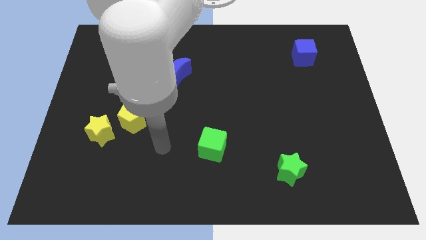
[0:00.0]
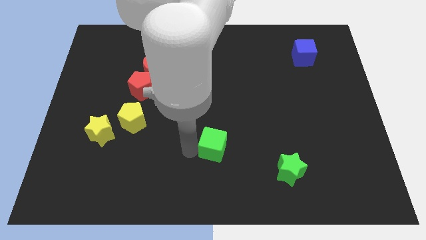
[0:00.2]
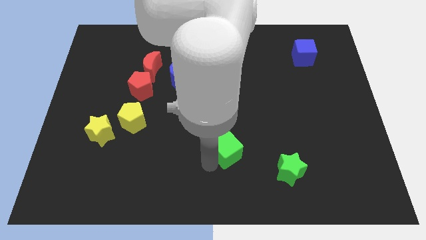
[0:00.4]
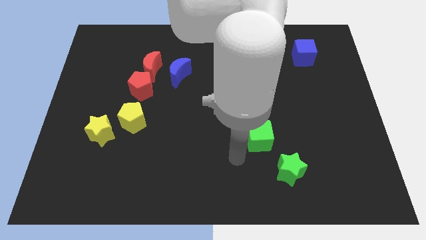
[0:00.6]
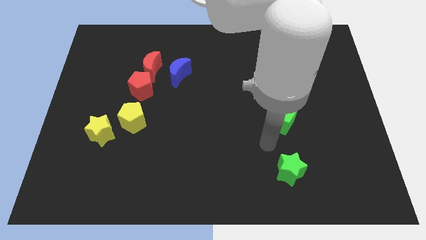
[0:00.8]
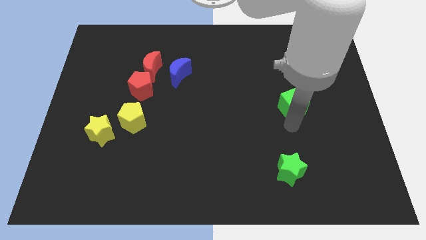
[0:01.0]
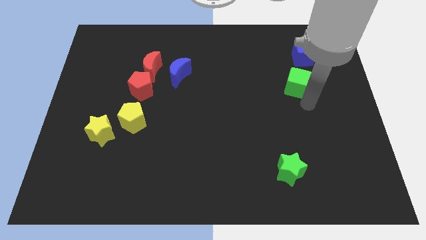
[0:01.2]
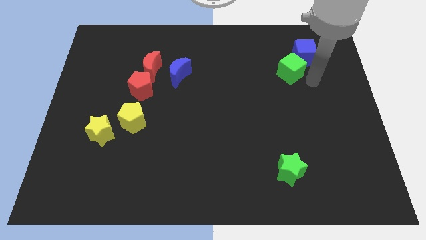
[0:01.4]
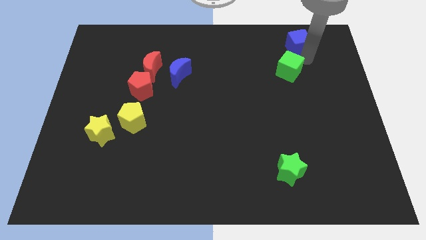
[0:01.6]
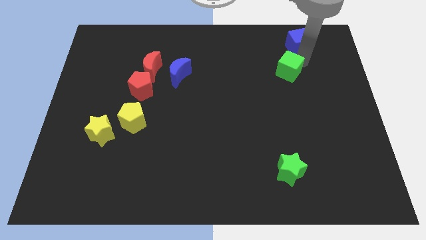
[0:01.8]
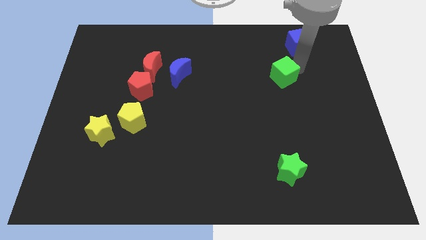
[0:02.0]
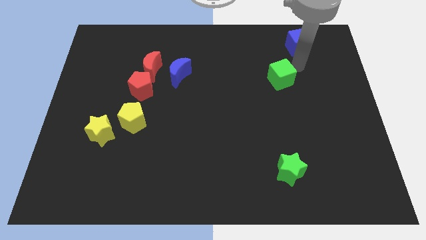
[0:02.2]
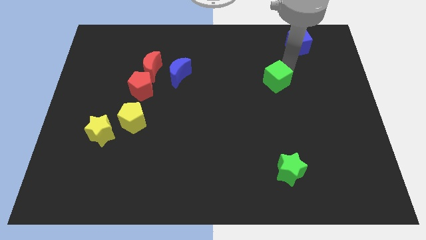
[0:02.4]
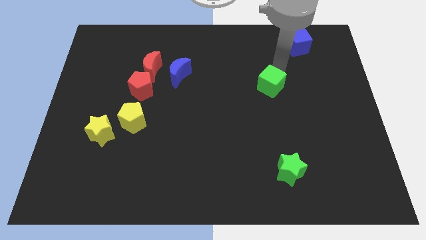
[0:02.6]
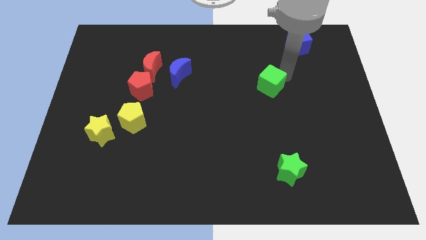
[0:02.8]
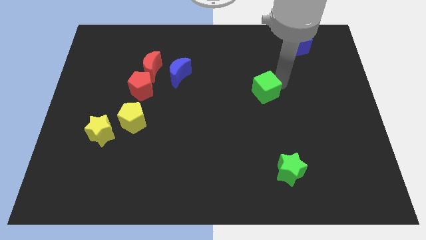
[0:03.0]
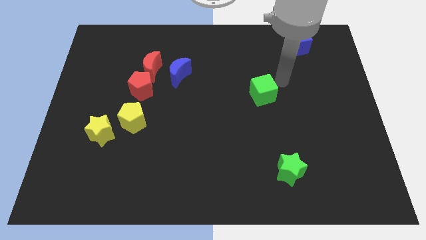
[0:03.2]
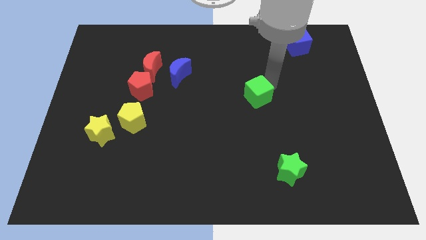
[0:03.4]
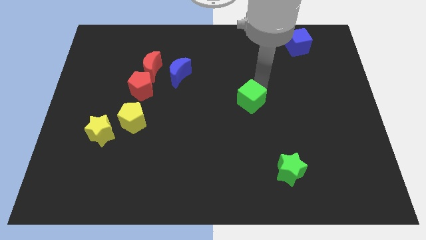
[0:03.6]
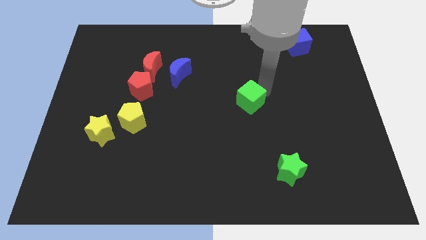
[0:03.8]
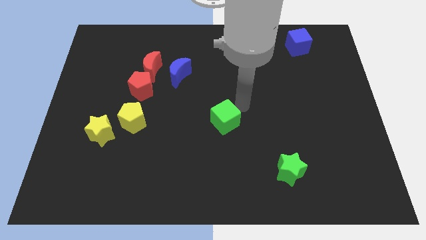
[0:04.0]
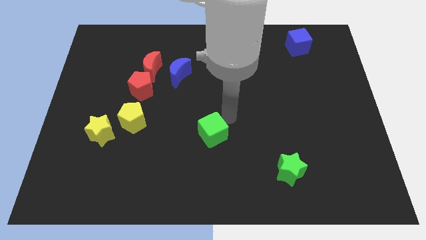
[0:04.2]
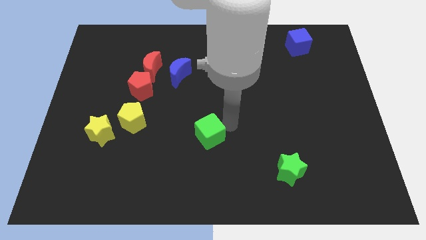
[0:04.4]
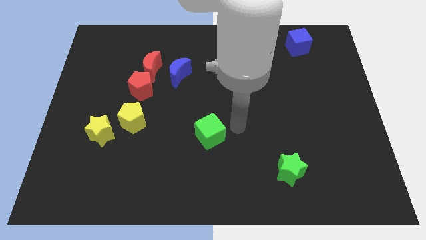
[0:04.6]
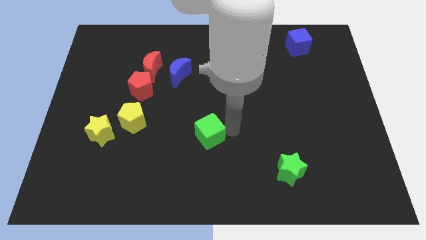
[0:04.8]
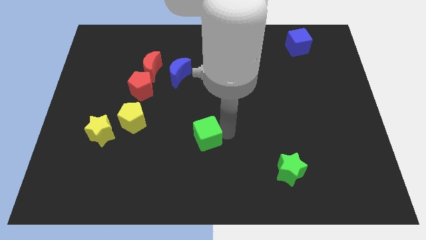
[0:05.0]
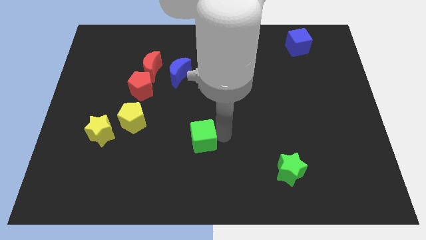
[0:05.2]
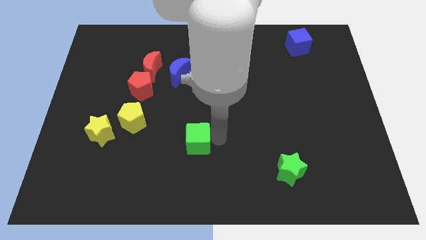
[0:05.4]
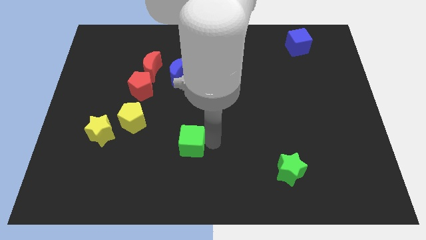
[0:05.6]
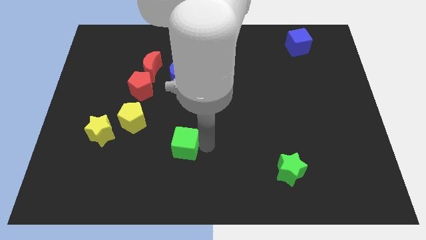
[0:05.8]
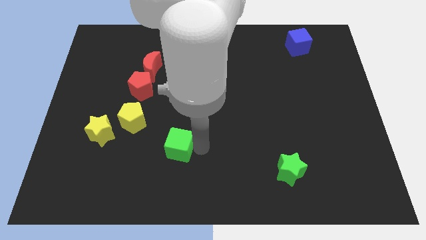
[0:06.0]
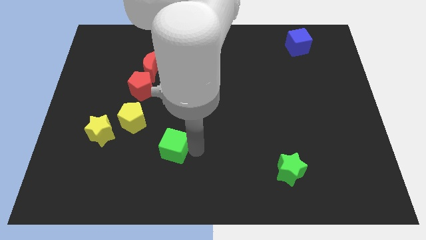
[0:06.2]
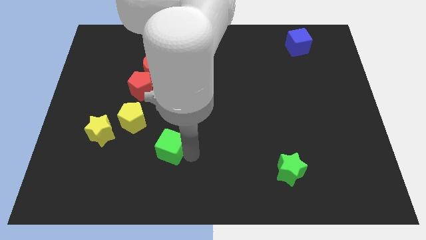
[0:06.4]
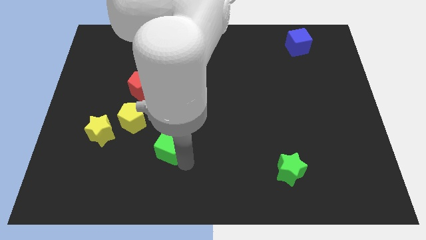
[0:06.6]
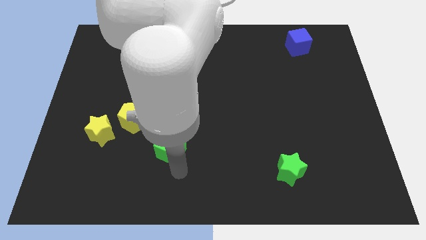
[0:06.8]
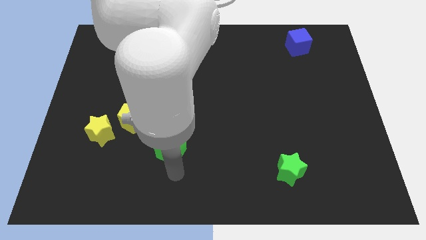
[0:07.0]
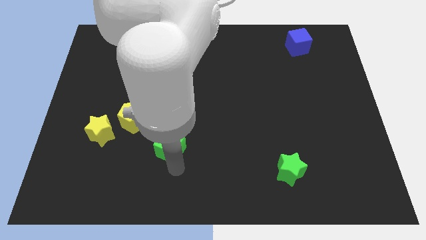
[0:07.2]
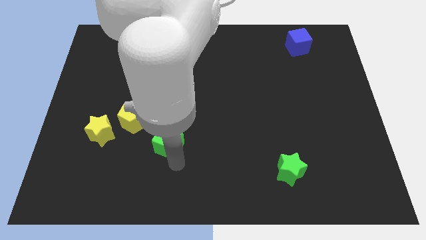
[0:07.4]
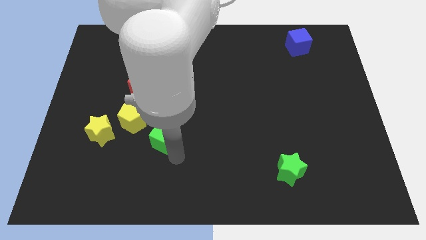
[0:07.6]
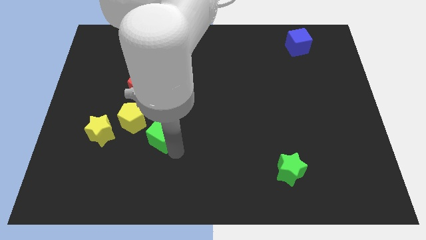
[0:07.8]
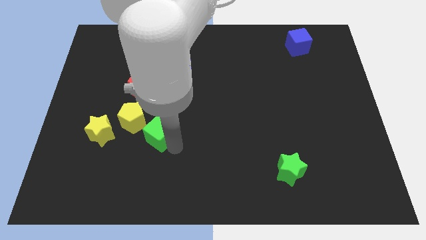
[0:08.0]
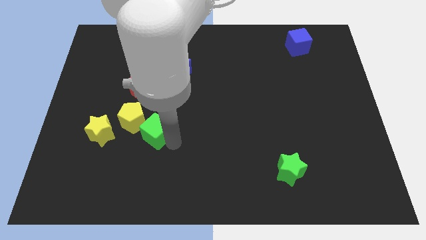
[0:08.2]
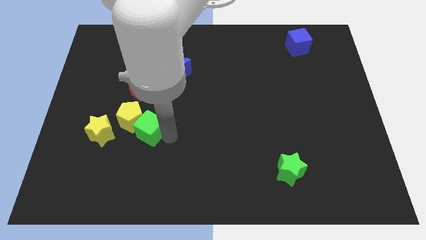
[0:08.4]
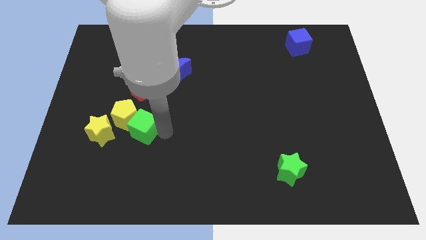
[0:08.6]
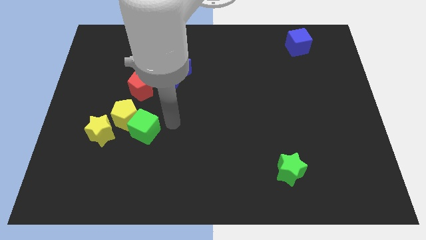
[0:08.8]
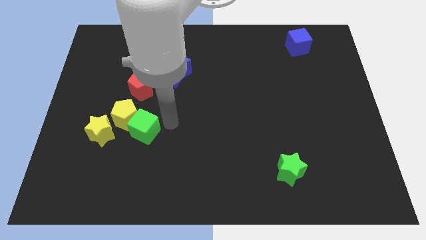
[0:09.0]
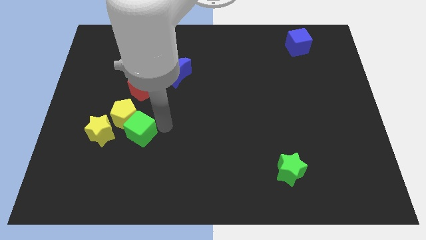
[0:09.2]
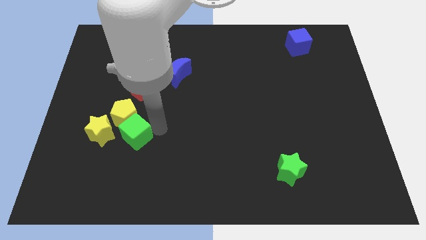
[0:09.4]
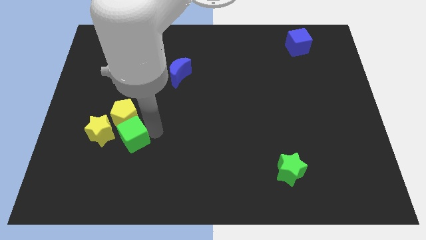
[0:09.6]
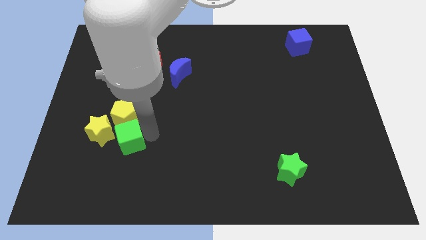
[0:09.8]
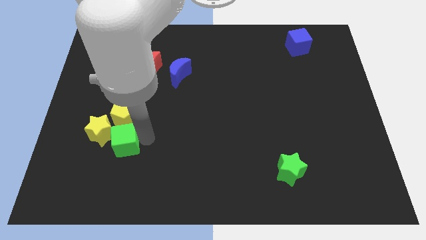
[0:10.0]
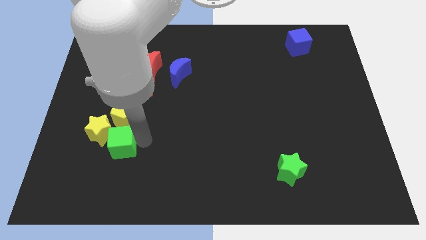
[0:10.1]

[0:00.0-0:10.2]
put the green cube towards the yellow star

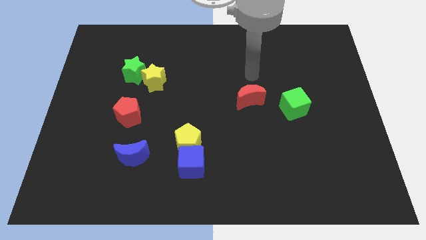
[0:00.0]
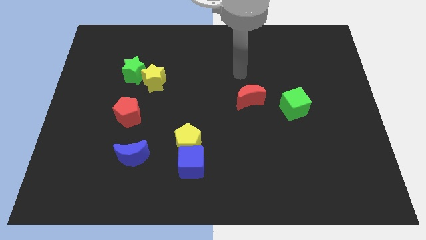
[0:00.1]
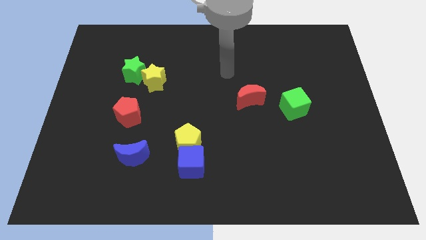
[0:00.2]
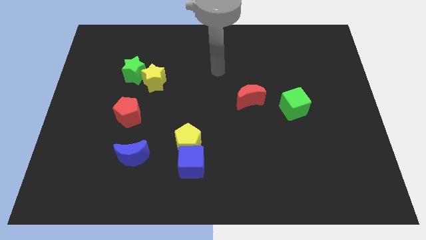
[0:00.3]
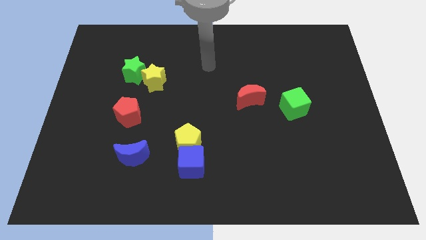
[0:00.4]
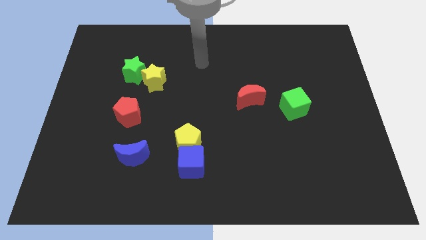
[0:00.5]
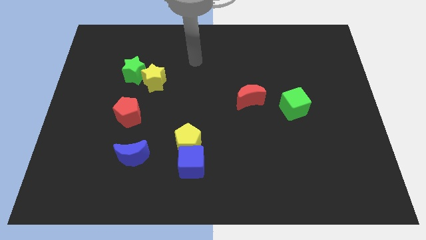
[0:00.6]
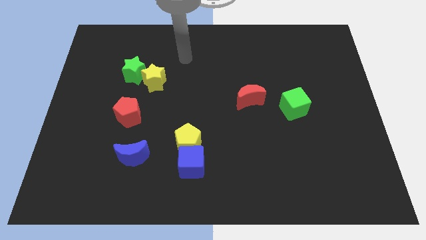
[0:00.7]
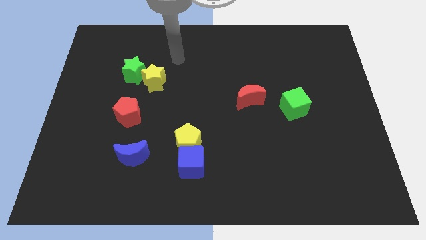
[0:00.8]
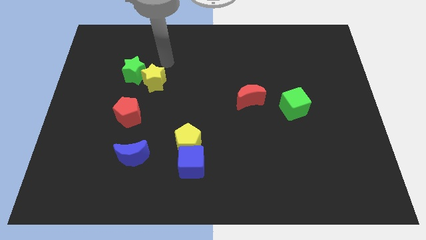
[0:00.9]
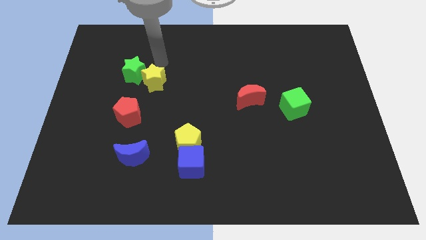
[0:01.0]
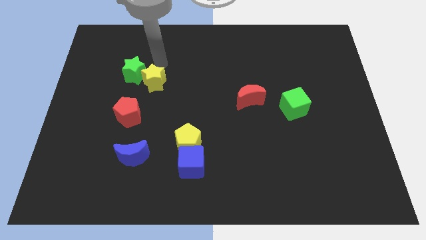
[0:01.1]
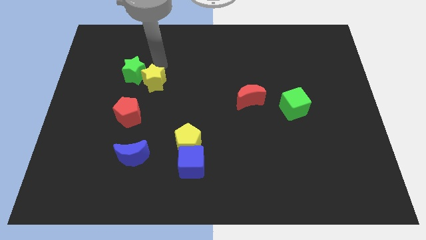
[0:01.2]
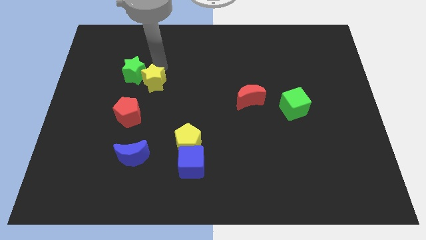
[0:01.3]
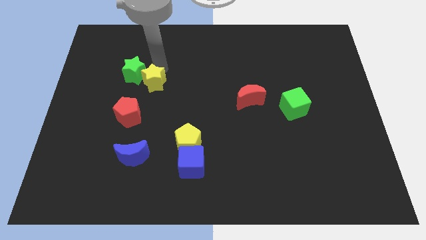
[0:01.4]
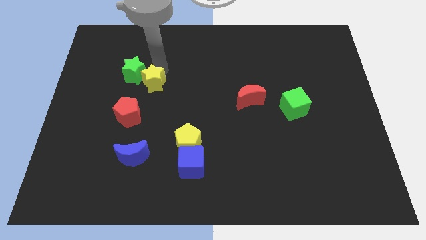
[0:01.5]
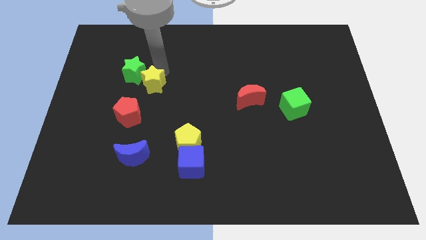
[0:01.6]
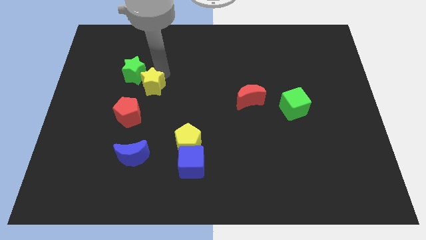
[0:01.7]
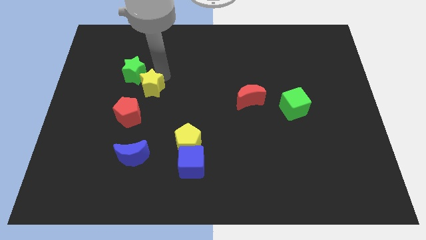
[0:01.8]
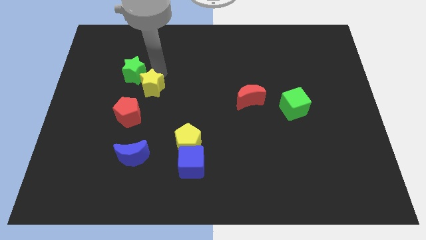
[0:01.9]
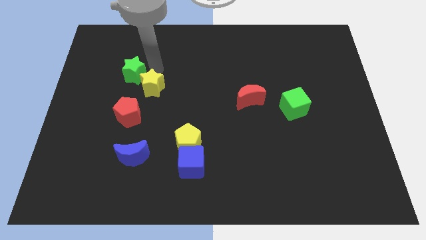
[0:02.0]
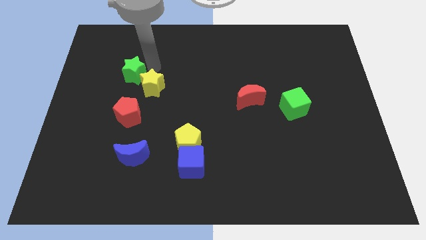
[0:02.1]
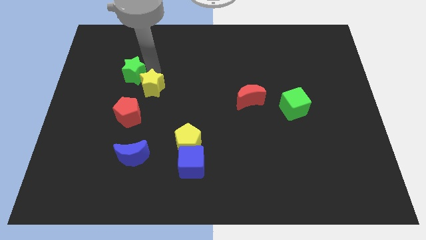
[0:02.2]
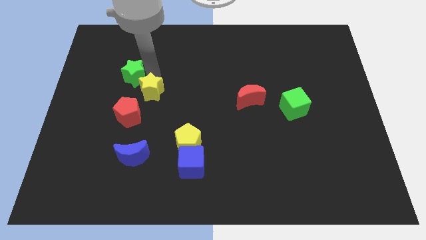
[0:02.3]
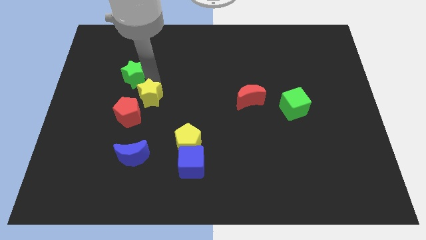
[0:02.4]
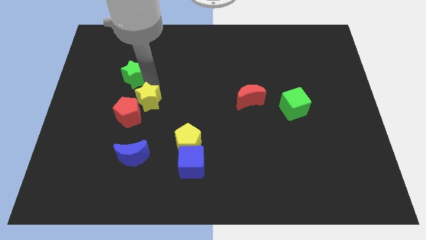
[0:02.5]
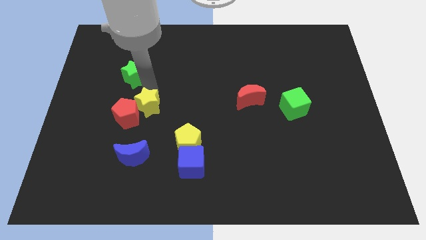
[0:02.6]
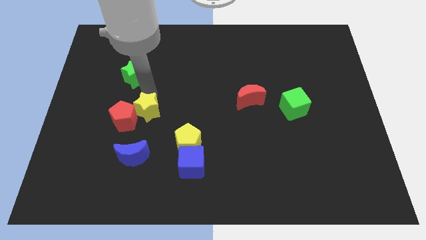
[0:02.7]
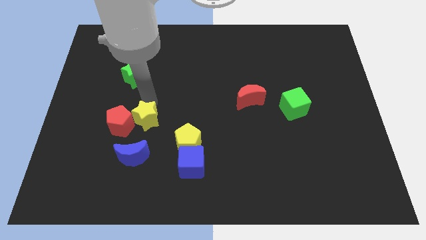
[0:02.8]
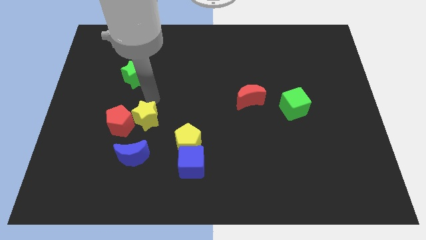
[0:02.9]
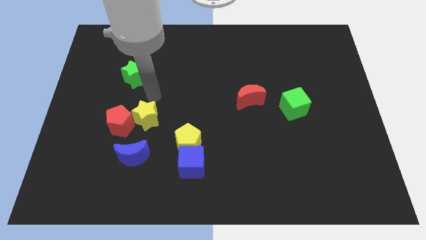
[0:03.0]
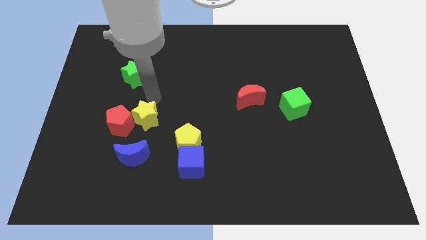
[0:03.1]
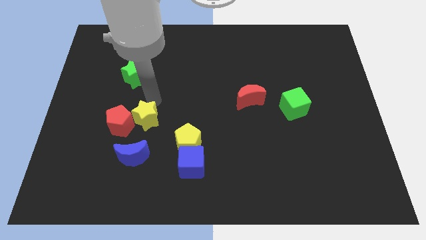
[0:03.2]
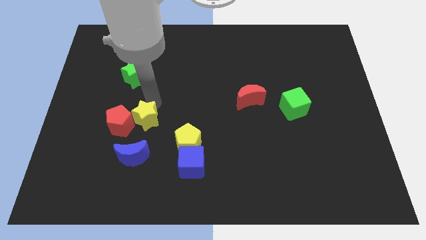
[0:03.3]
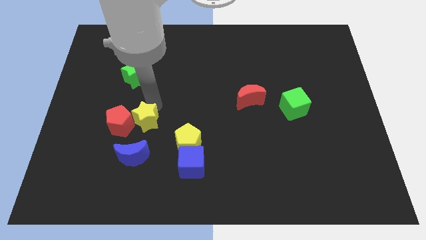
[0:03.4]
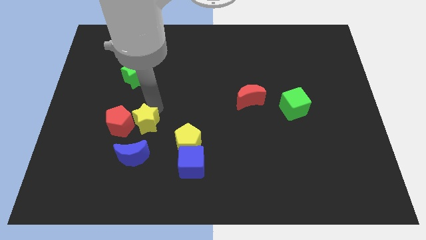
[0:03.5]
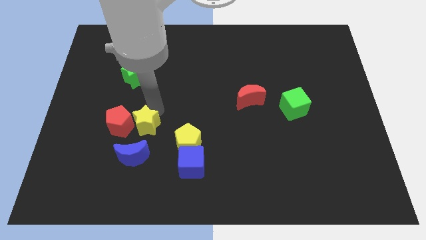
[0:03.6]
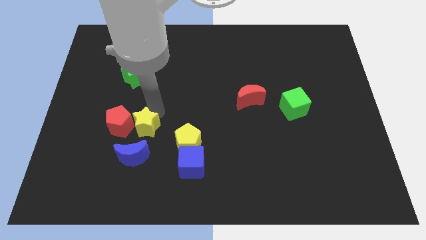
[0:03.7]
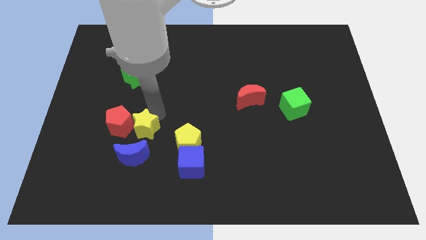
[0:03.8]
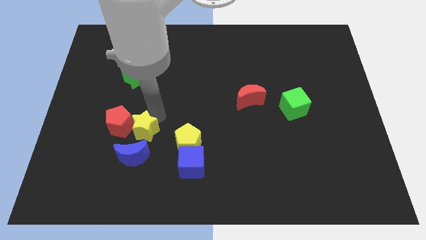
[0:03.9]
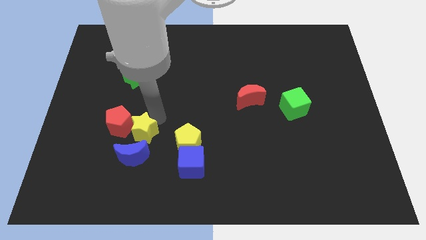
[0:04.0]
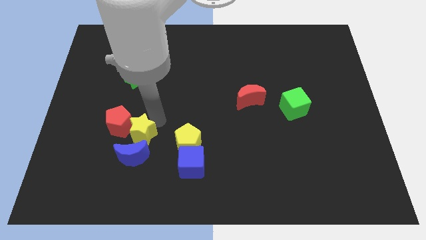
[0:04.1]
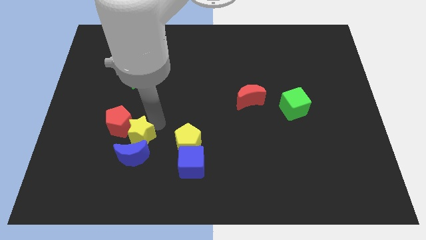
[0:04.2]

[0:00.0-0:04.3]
slide the yellow star to the blue moon
